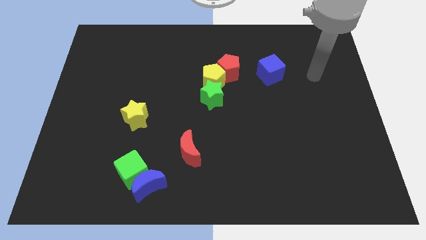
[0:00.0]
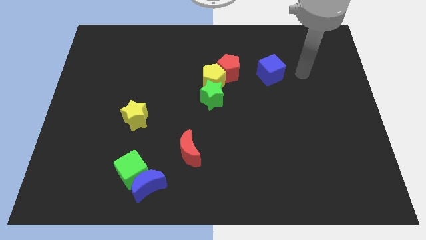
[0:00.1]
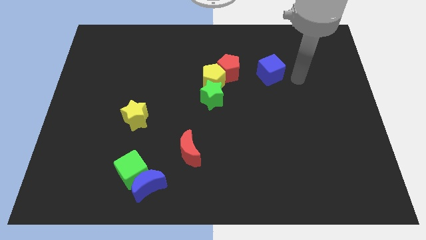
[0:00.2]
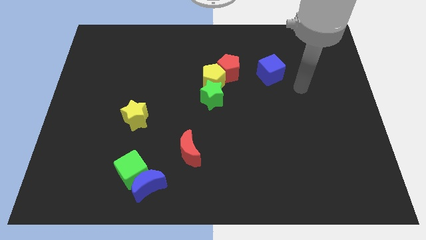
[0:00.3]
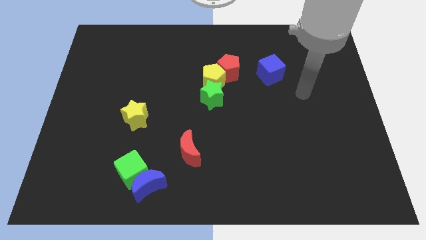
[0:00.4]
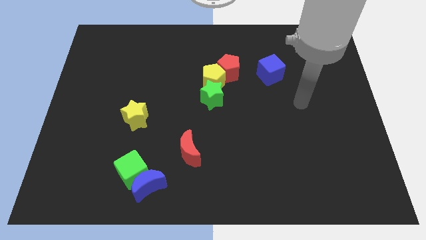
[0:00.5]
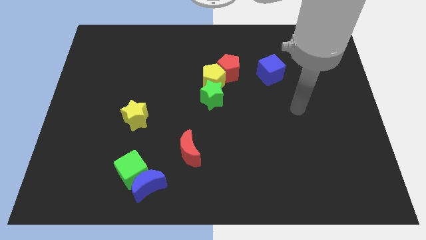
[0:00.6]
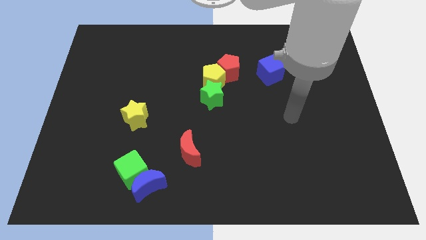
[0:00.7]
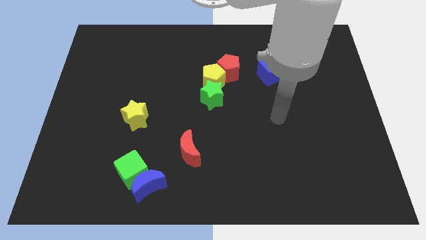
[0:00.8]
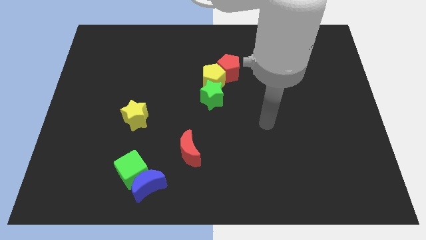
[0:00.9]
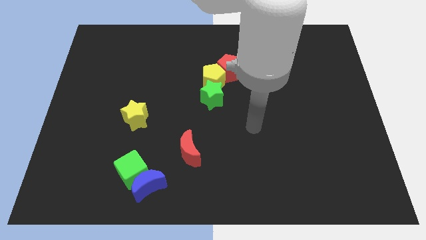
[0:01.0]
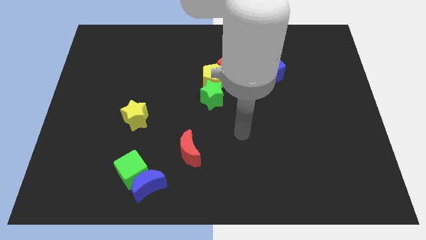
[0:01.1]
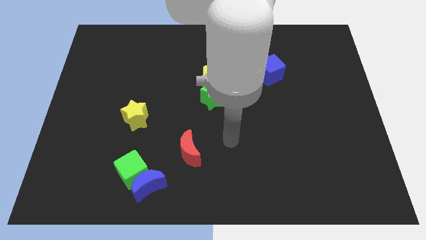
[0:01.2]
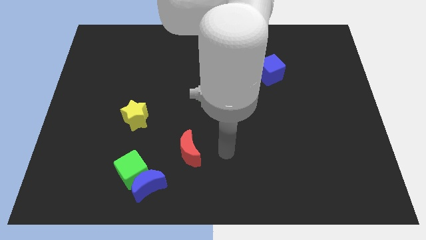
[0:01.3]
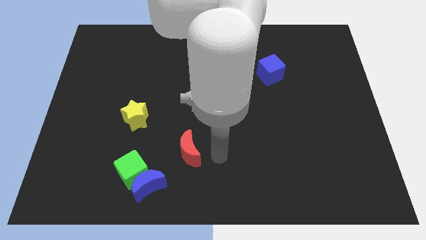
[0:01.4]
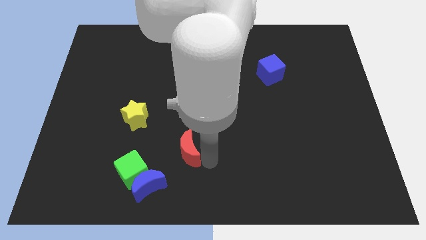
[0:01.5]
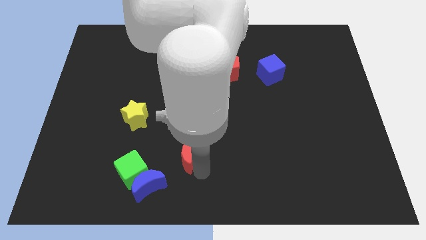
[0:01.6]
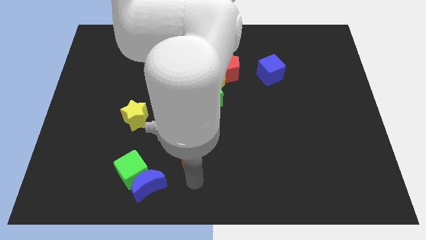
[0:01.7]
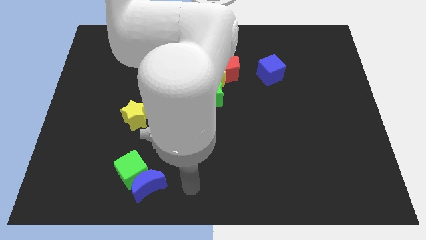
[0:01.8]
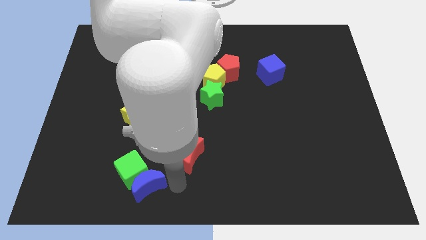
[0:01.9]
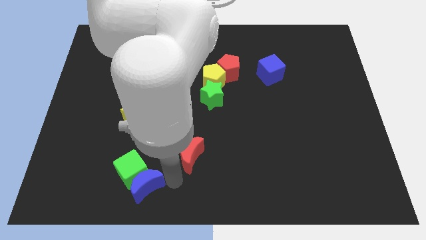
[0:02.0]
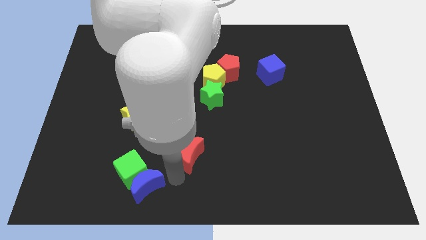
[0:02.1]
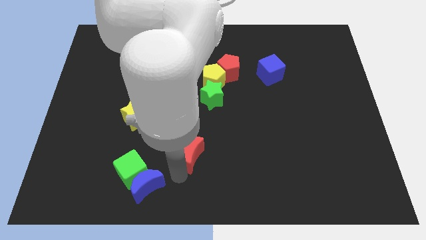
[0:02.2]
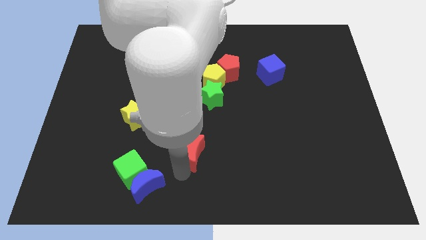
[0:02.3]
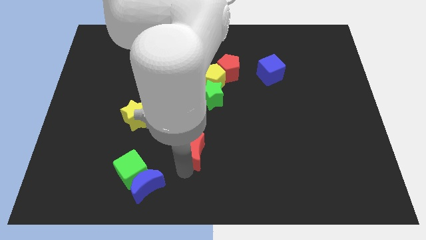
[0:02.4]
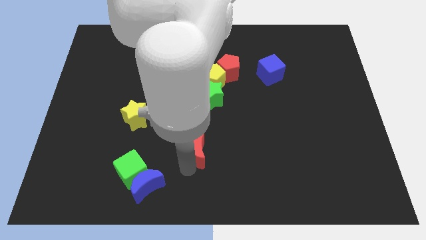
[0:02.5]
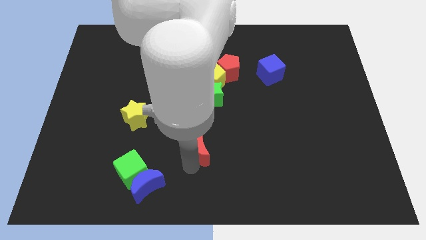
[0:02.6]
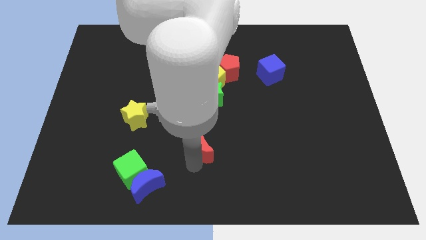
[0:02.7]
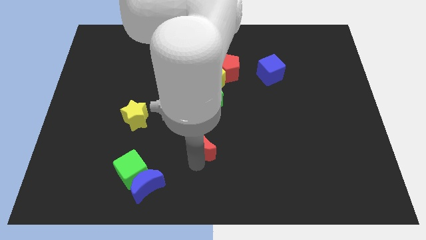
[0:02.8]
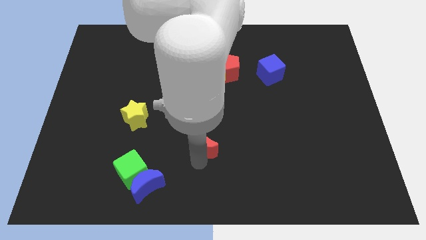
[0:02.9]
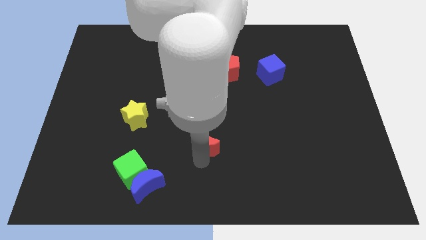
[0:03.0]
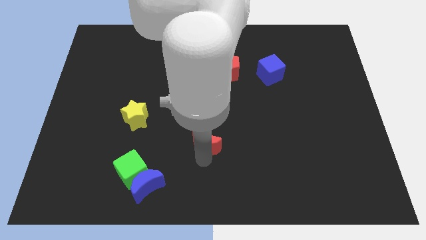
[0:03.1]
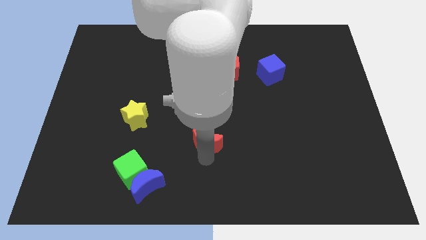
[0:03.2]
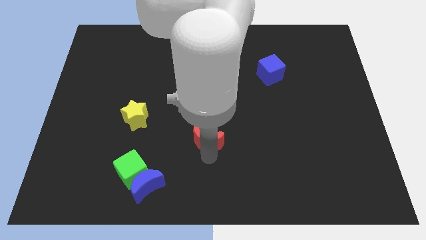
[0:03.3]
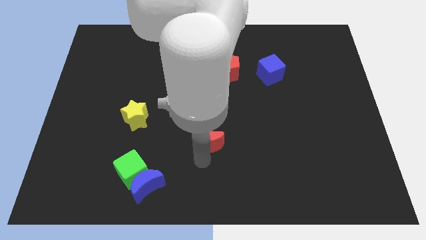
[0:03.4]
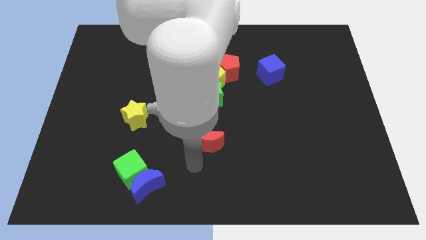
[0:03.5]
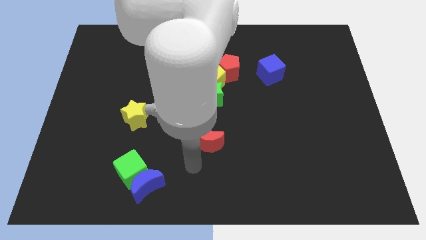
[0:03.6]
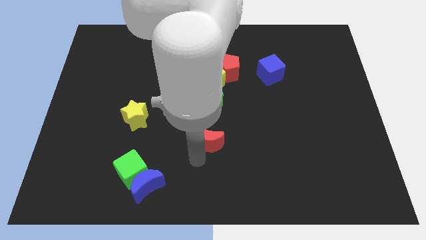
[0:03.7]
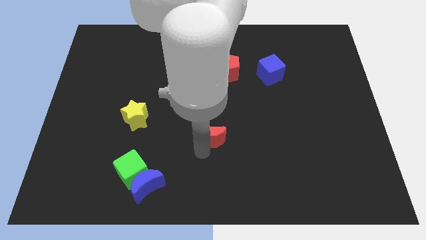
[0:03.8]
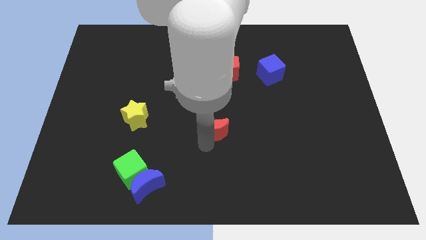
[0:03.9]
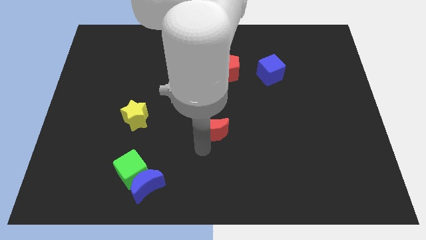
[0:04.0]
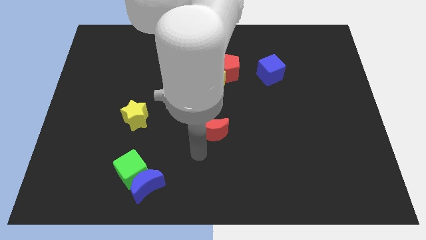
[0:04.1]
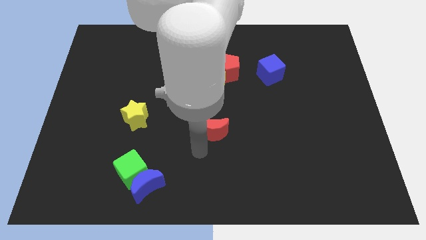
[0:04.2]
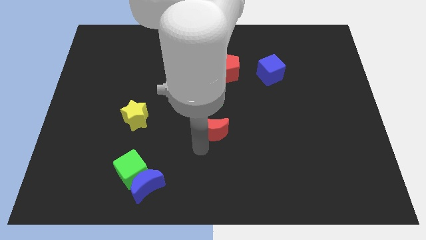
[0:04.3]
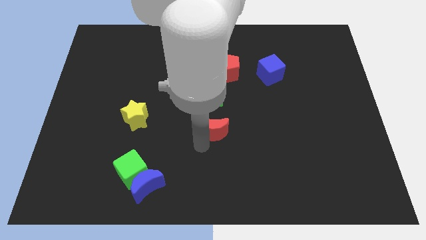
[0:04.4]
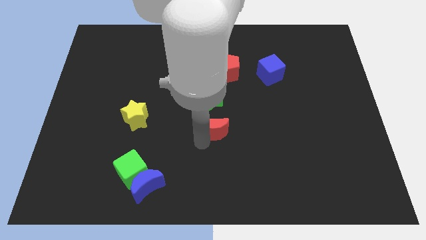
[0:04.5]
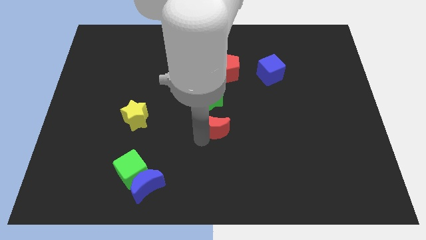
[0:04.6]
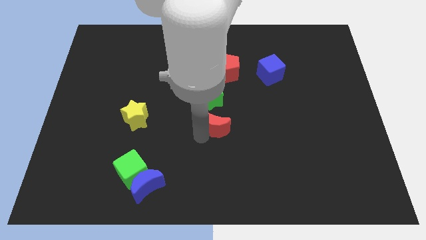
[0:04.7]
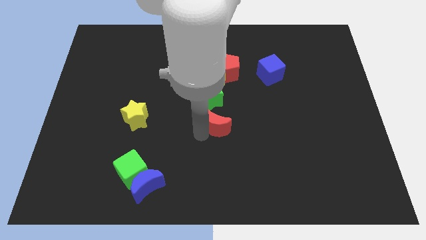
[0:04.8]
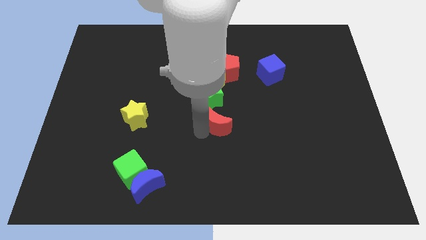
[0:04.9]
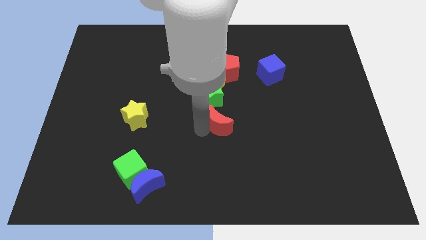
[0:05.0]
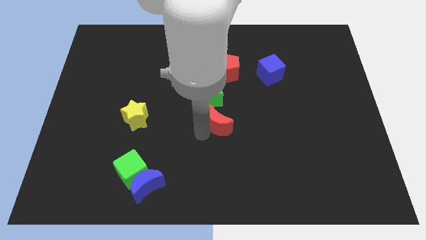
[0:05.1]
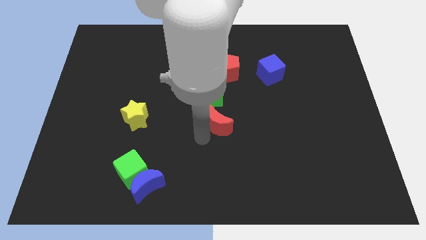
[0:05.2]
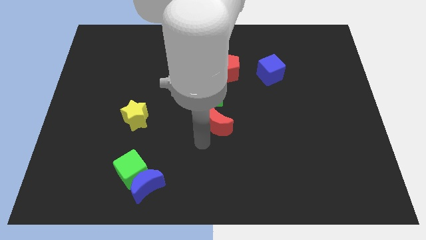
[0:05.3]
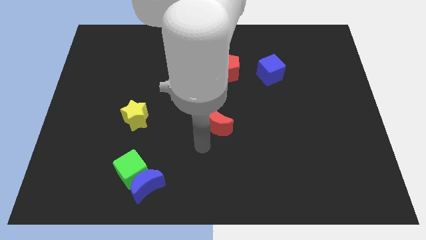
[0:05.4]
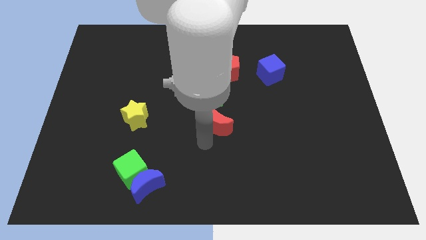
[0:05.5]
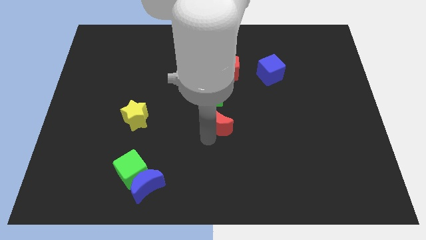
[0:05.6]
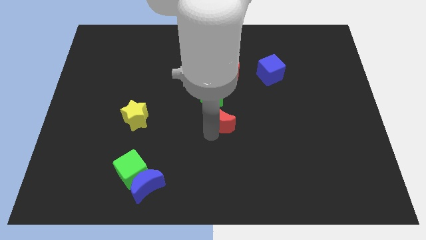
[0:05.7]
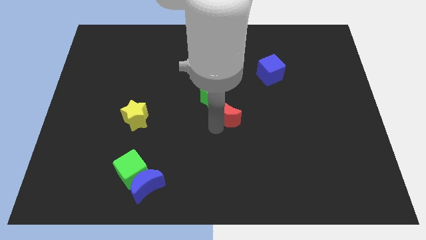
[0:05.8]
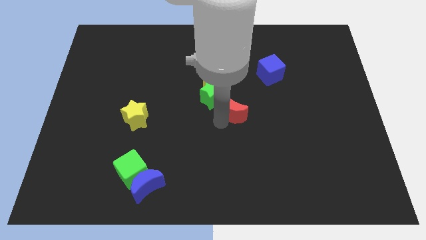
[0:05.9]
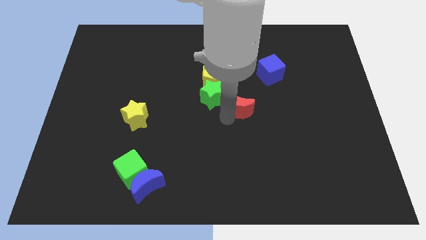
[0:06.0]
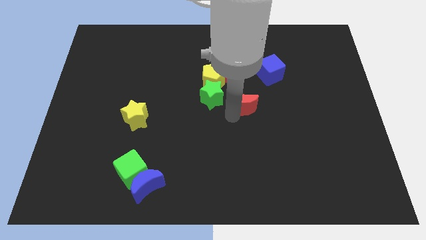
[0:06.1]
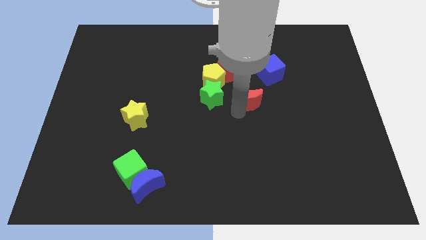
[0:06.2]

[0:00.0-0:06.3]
push the red moon to the bottom right of the red pentagon
